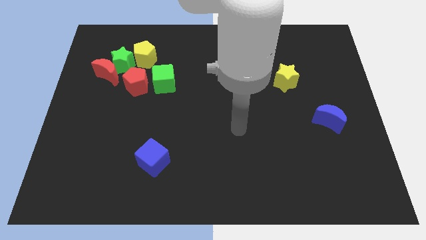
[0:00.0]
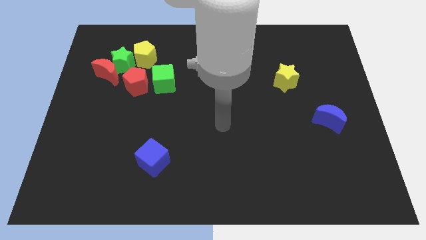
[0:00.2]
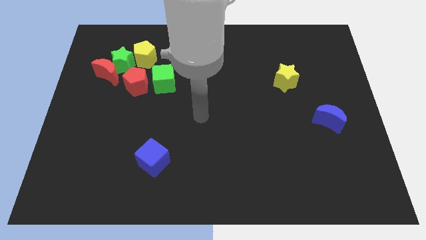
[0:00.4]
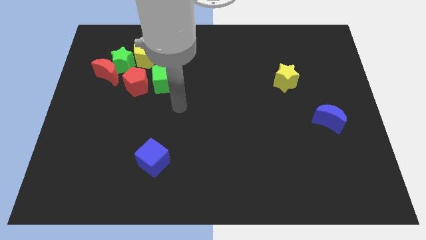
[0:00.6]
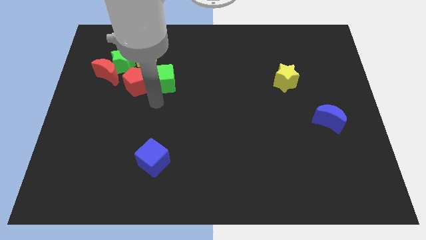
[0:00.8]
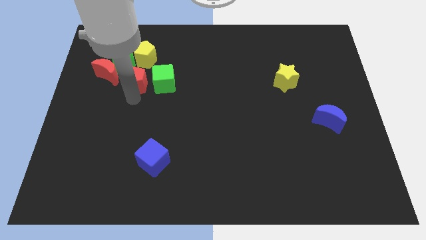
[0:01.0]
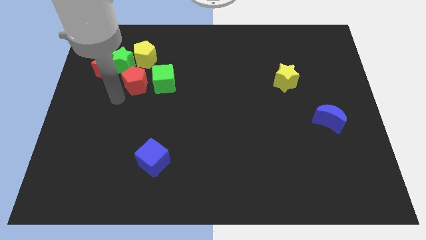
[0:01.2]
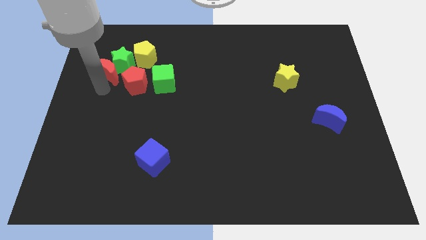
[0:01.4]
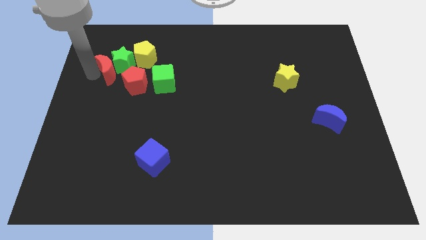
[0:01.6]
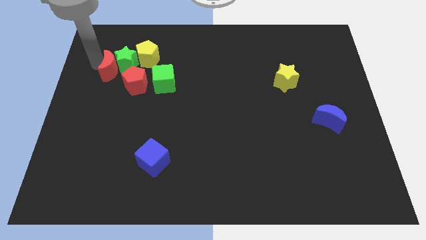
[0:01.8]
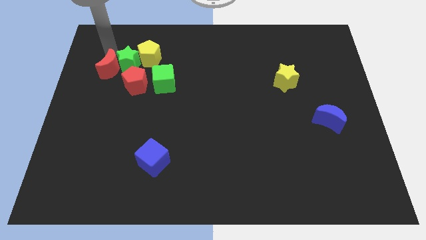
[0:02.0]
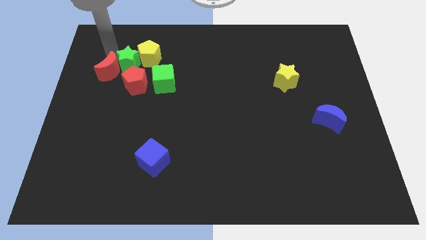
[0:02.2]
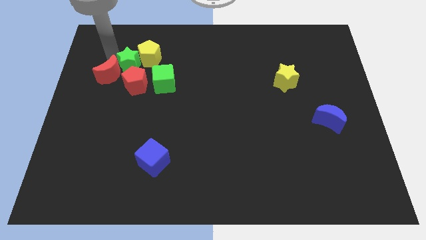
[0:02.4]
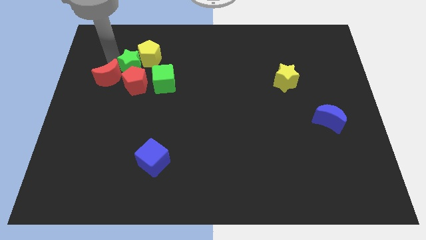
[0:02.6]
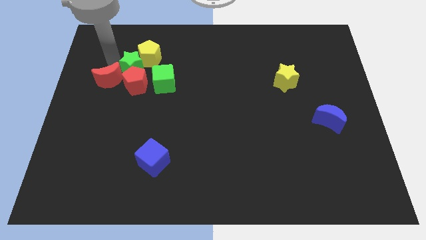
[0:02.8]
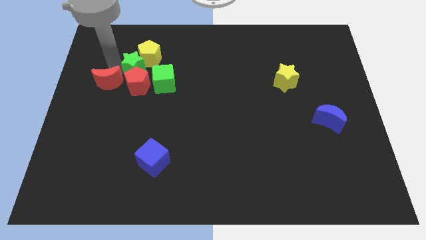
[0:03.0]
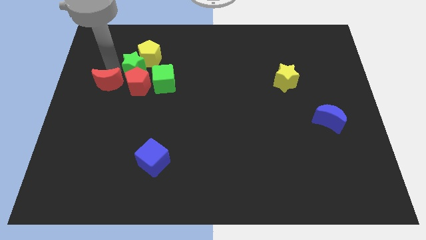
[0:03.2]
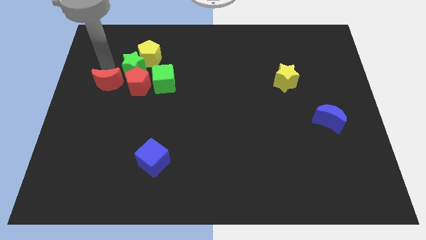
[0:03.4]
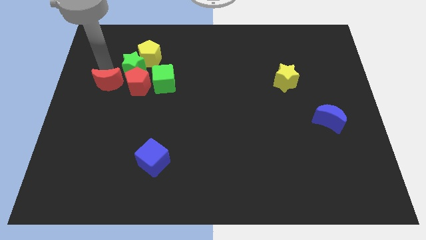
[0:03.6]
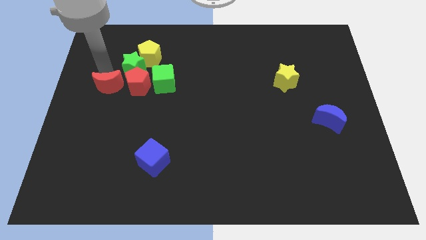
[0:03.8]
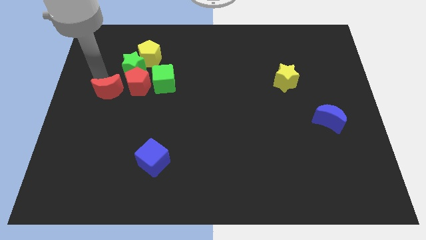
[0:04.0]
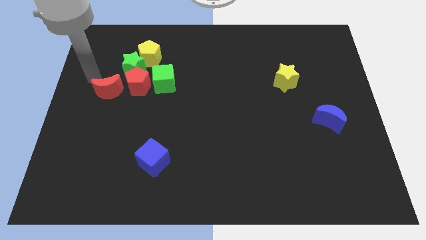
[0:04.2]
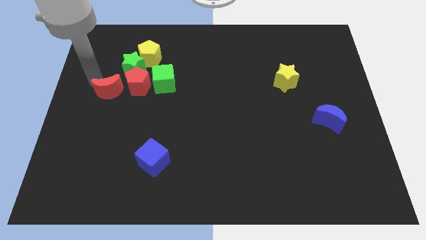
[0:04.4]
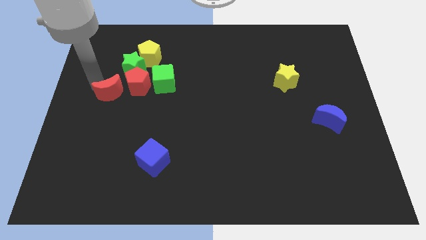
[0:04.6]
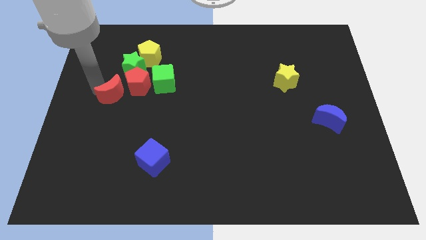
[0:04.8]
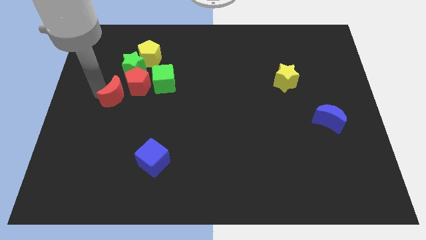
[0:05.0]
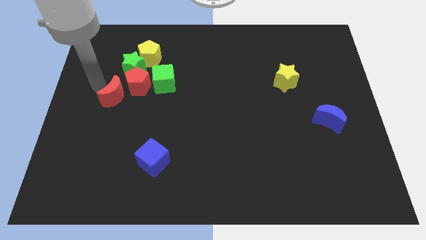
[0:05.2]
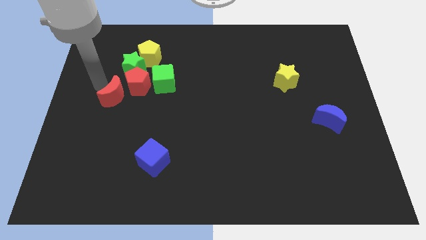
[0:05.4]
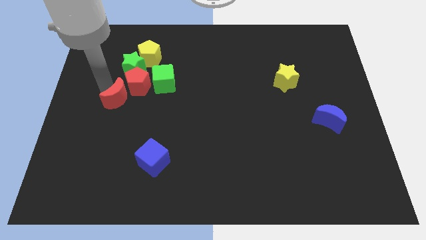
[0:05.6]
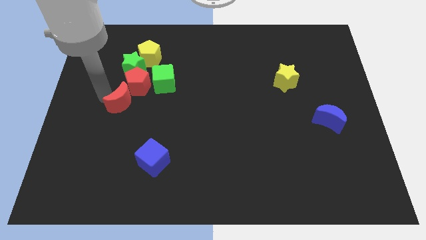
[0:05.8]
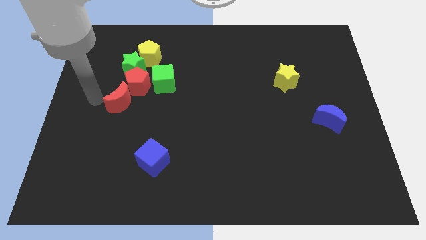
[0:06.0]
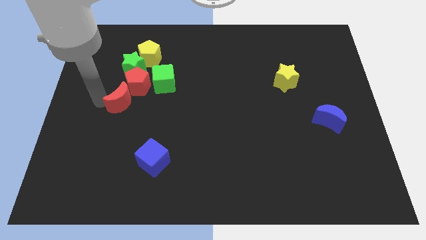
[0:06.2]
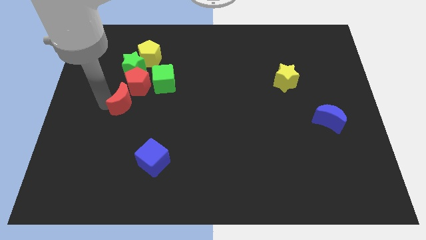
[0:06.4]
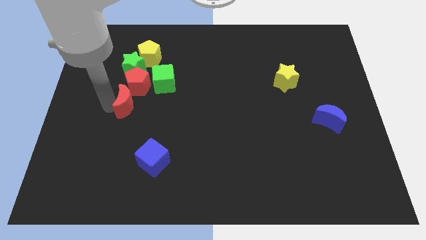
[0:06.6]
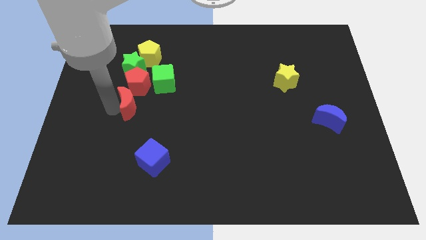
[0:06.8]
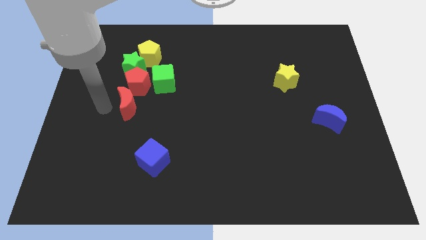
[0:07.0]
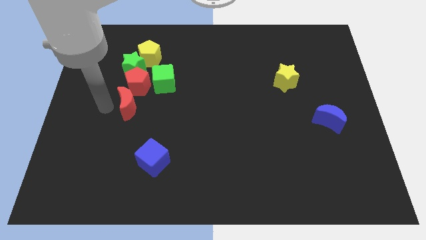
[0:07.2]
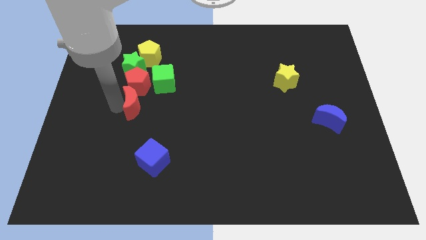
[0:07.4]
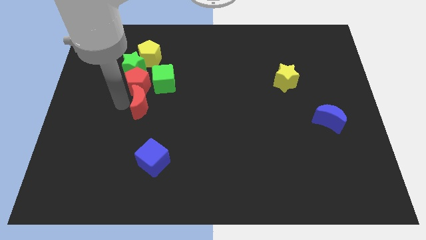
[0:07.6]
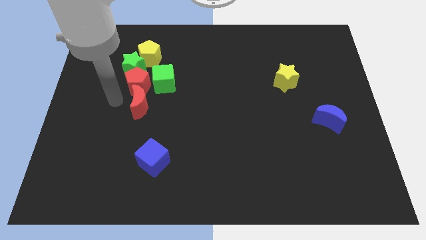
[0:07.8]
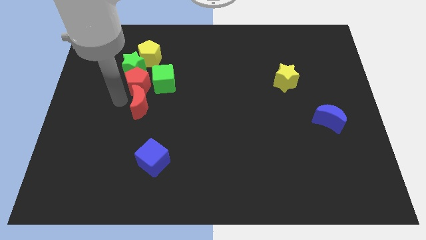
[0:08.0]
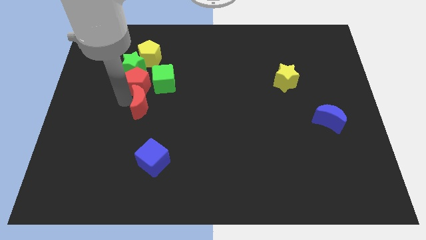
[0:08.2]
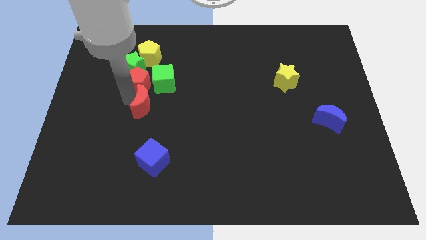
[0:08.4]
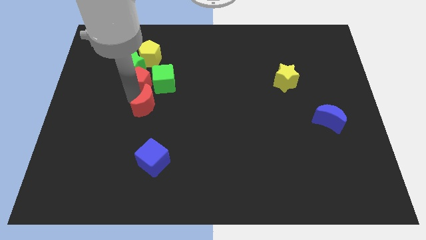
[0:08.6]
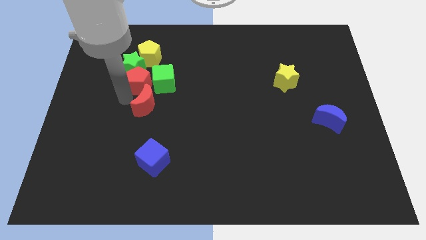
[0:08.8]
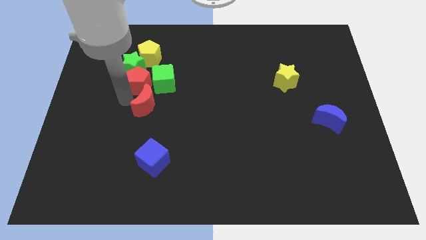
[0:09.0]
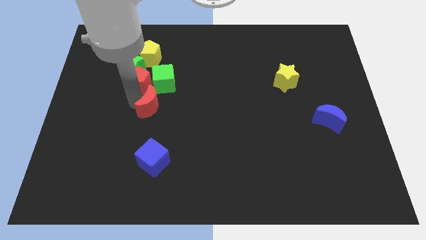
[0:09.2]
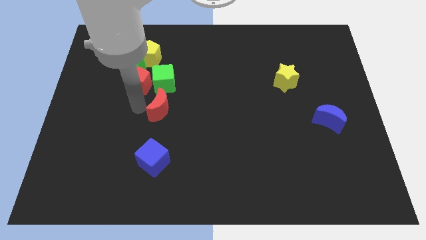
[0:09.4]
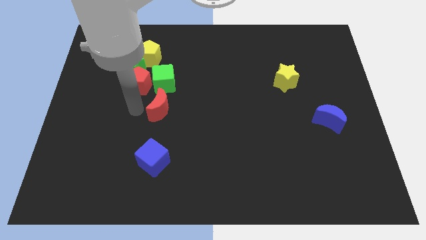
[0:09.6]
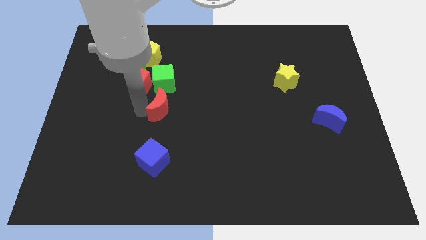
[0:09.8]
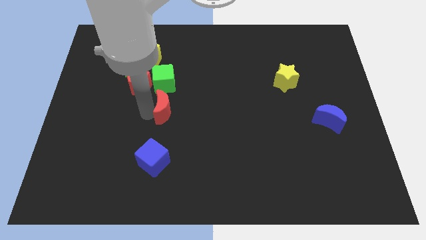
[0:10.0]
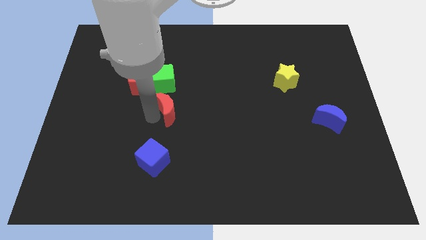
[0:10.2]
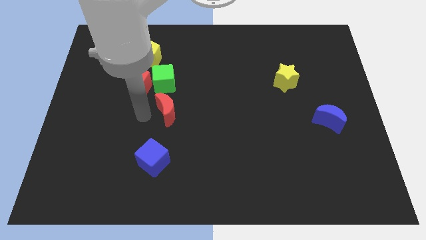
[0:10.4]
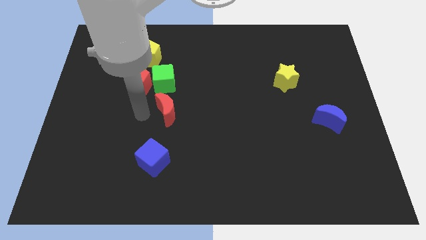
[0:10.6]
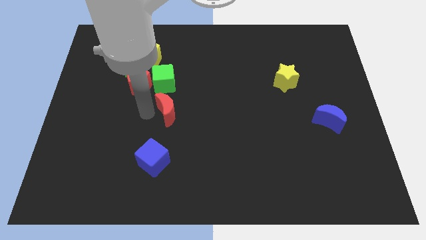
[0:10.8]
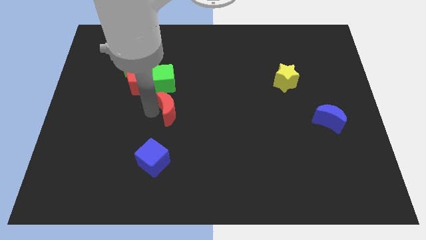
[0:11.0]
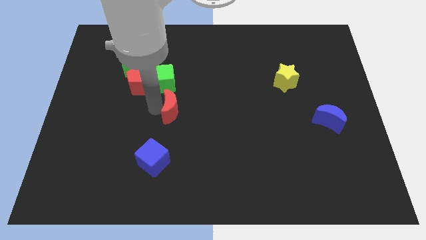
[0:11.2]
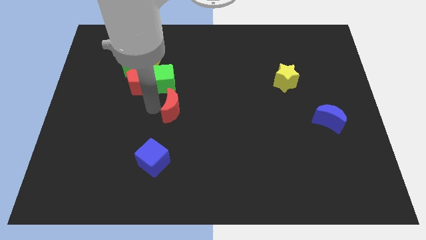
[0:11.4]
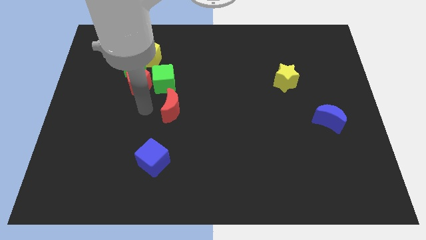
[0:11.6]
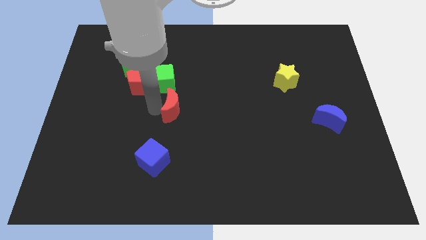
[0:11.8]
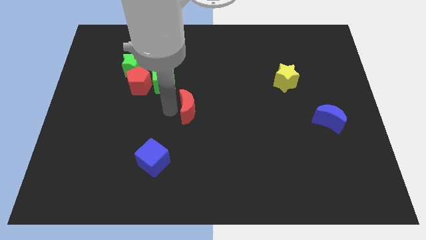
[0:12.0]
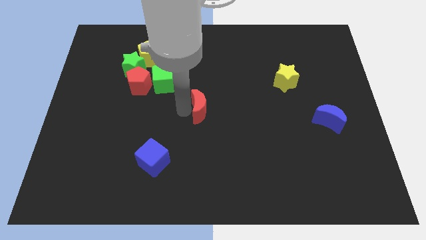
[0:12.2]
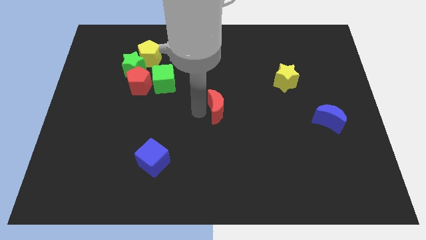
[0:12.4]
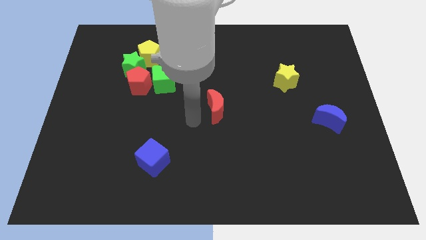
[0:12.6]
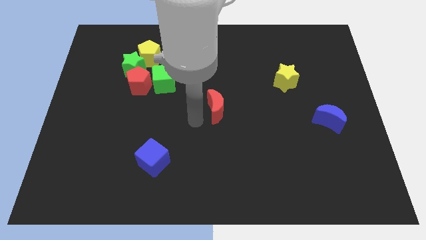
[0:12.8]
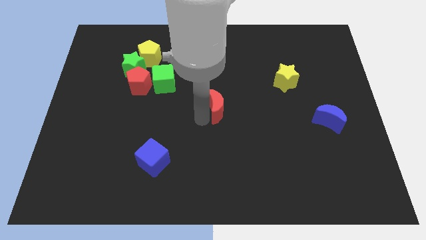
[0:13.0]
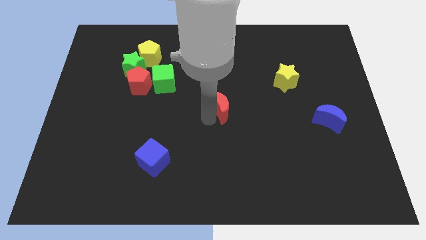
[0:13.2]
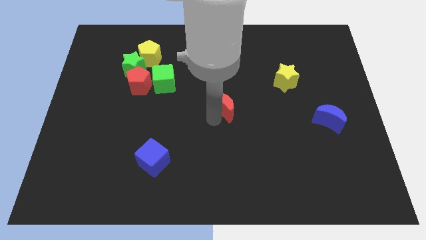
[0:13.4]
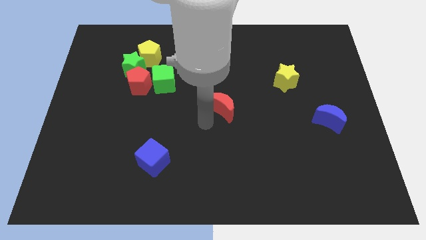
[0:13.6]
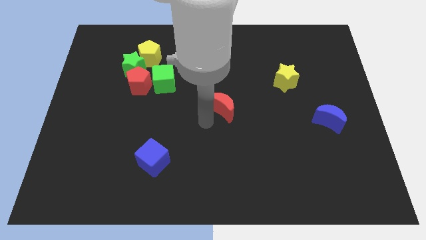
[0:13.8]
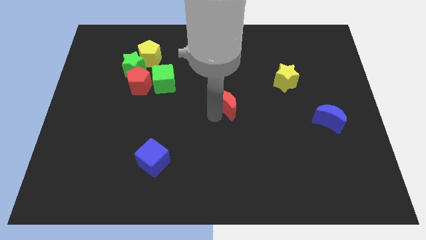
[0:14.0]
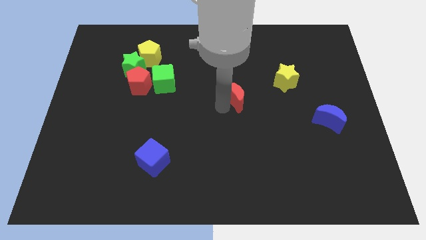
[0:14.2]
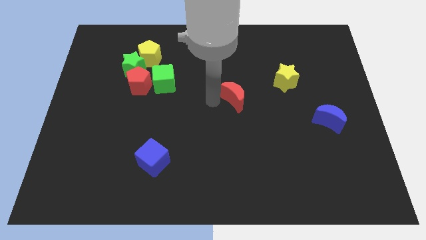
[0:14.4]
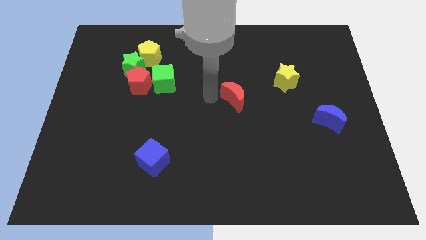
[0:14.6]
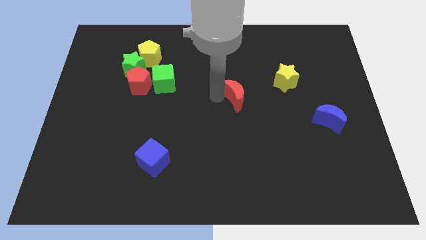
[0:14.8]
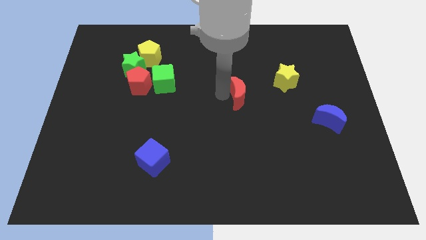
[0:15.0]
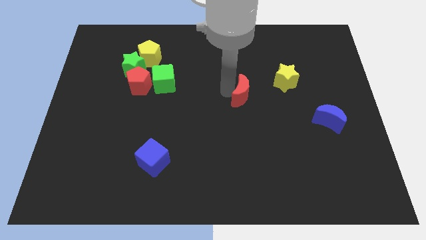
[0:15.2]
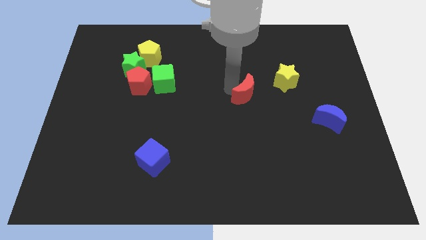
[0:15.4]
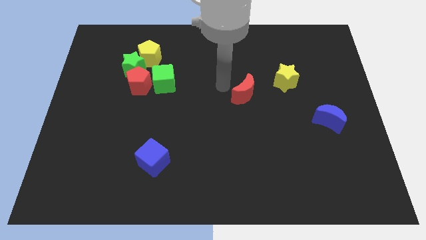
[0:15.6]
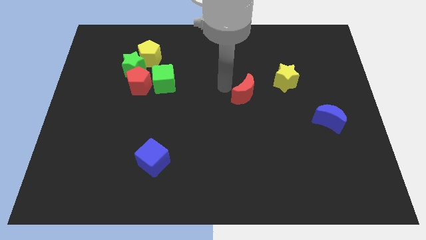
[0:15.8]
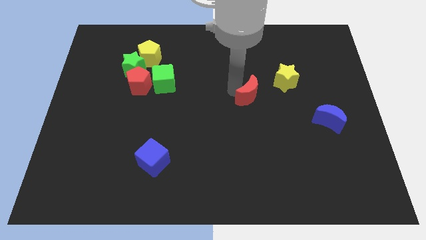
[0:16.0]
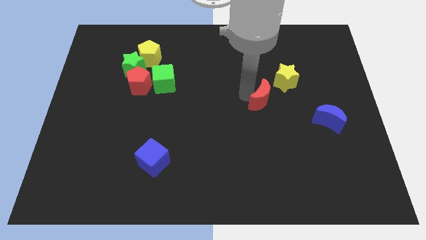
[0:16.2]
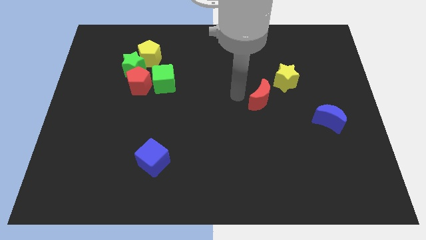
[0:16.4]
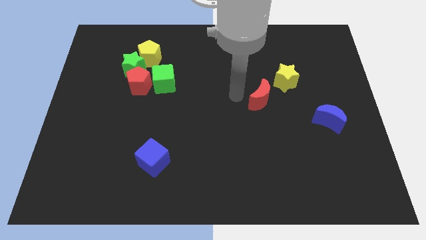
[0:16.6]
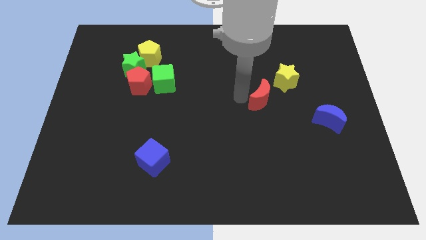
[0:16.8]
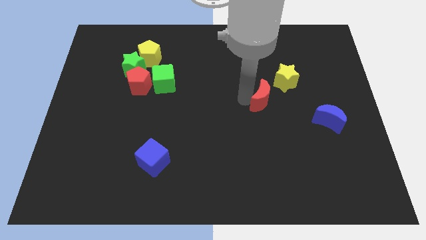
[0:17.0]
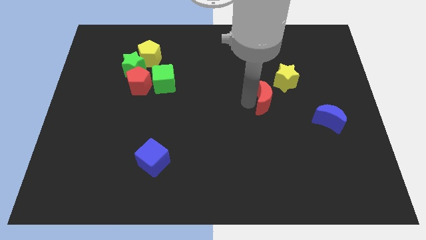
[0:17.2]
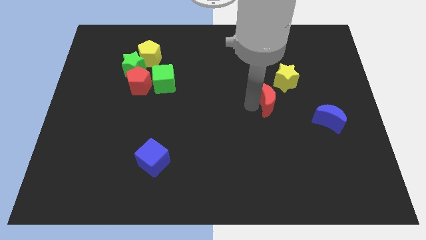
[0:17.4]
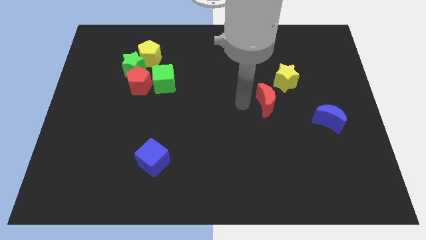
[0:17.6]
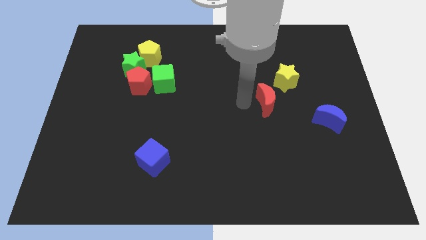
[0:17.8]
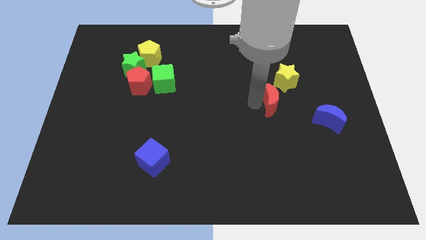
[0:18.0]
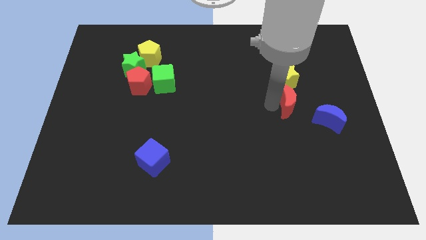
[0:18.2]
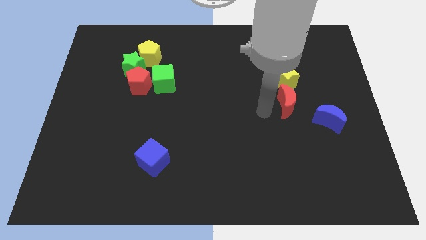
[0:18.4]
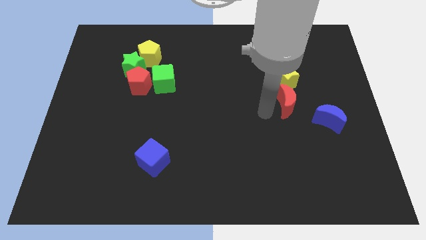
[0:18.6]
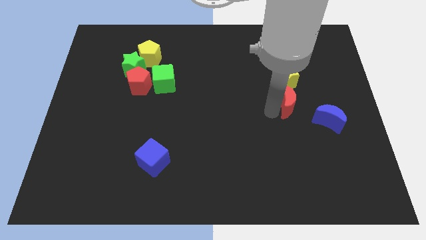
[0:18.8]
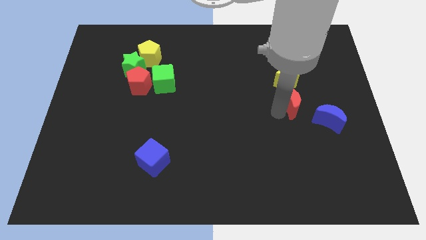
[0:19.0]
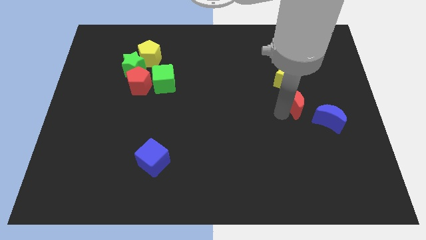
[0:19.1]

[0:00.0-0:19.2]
move the red moon to the bottom right side of the yellow star
